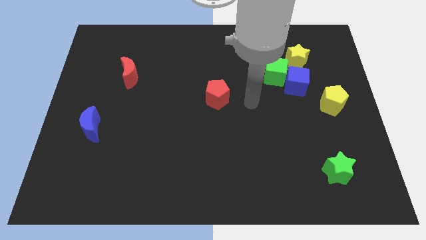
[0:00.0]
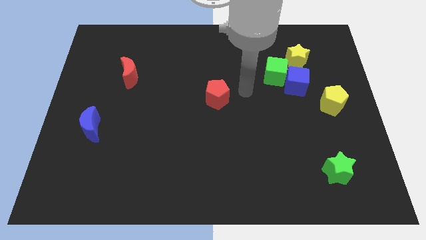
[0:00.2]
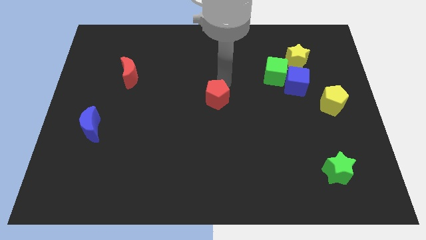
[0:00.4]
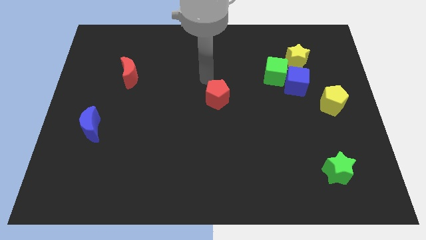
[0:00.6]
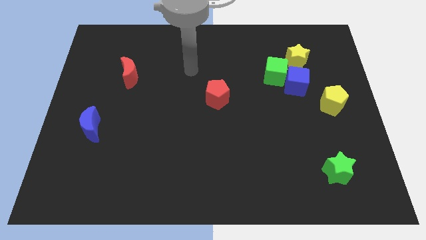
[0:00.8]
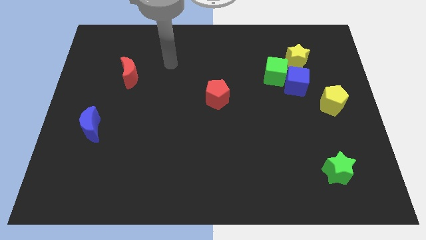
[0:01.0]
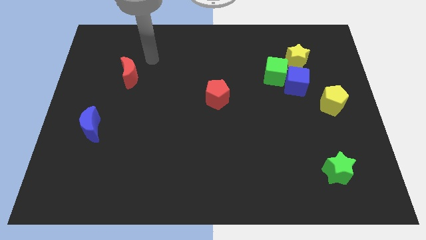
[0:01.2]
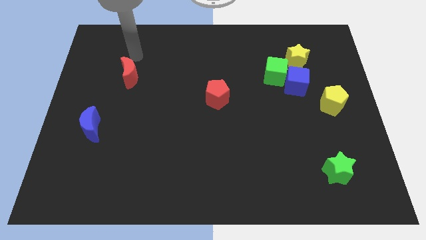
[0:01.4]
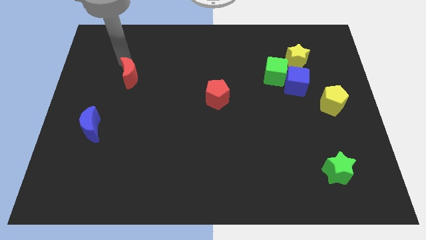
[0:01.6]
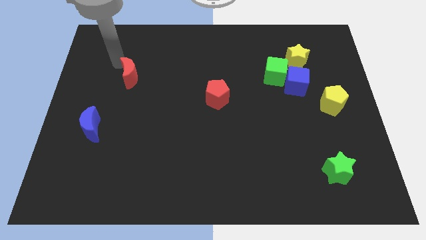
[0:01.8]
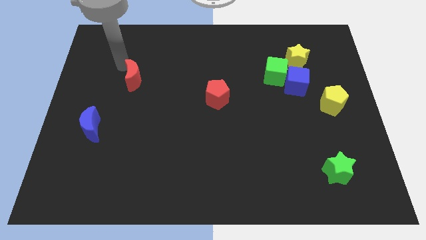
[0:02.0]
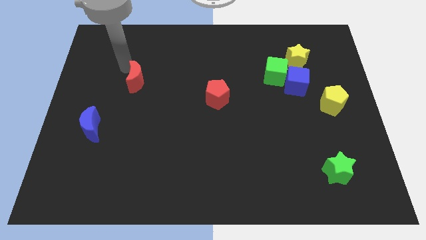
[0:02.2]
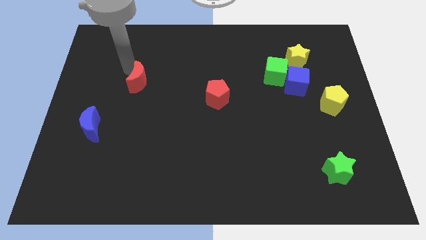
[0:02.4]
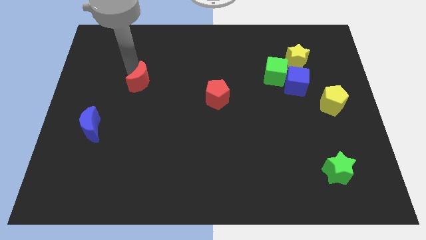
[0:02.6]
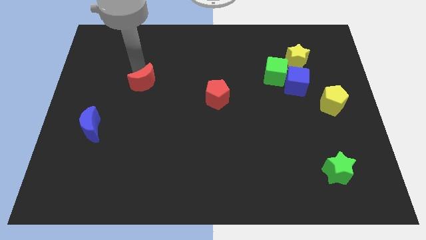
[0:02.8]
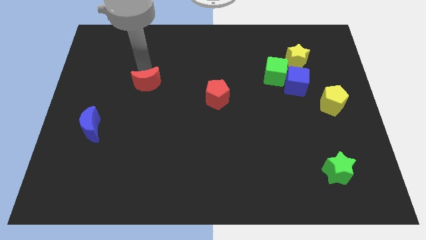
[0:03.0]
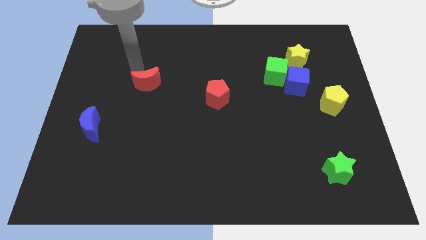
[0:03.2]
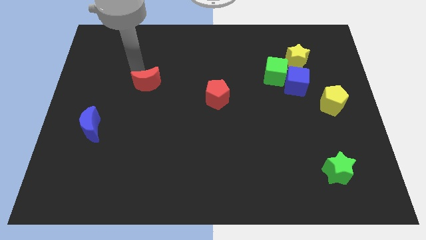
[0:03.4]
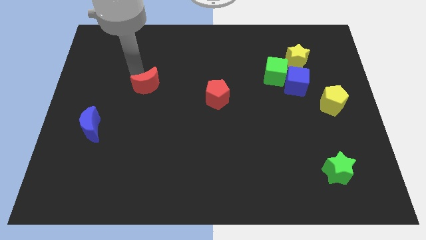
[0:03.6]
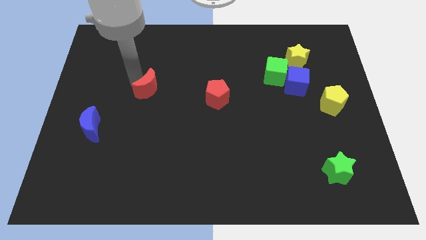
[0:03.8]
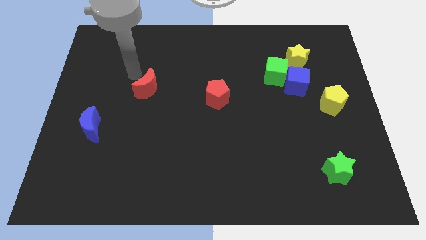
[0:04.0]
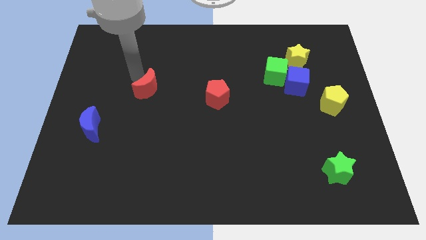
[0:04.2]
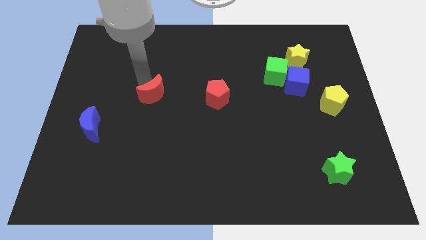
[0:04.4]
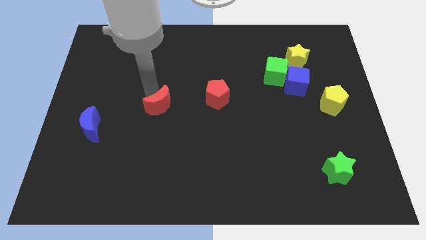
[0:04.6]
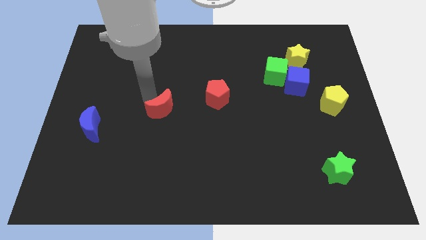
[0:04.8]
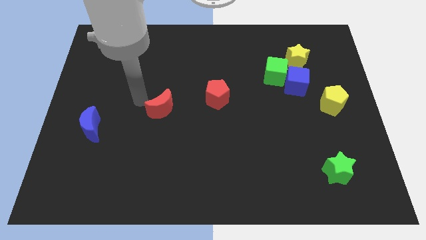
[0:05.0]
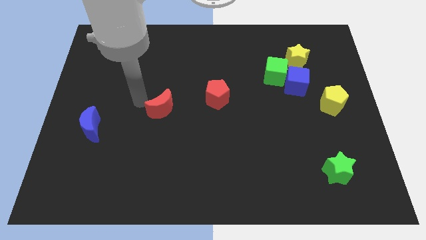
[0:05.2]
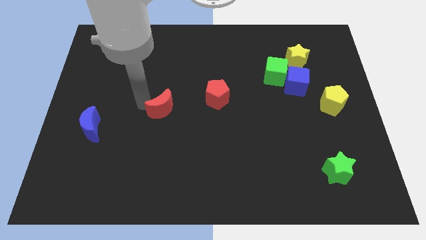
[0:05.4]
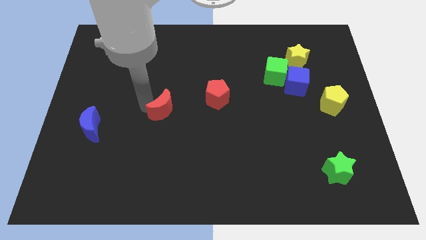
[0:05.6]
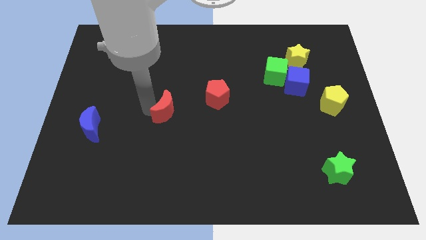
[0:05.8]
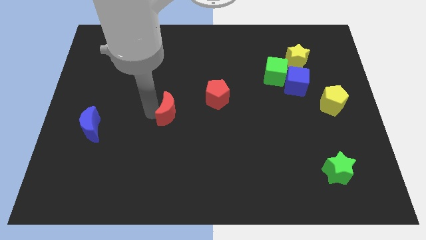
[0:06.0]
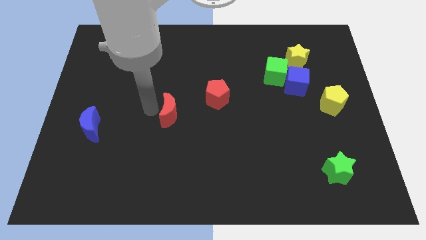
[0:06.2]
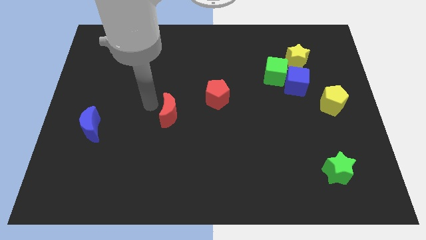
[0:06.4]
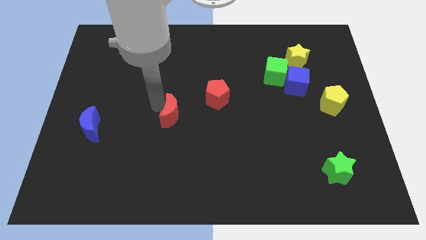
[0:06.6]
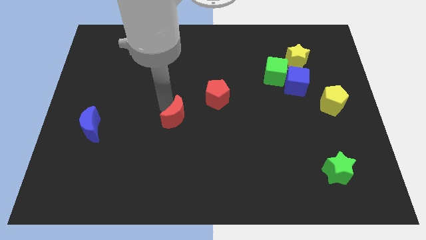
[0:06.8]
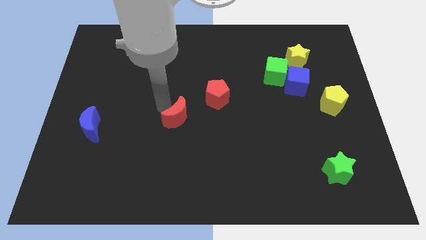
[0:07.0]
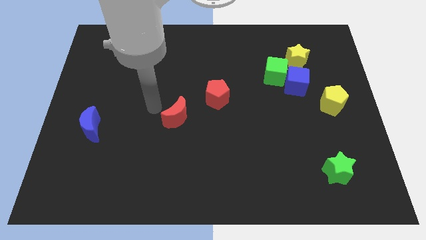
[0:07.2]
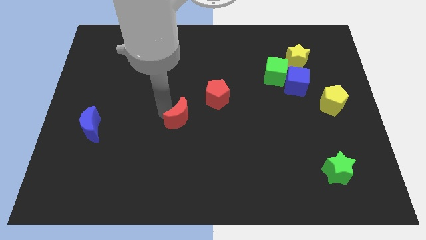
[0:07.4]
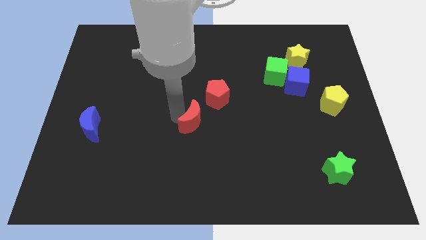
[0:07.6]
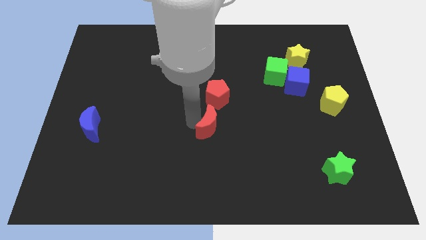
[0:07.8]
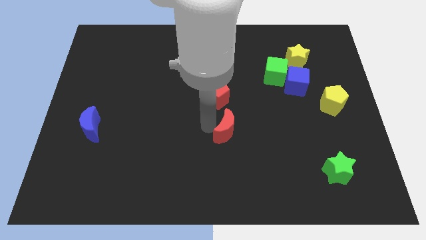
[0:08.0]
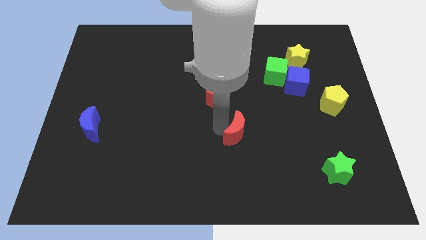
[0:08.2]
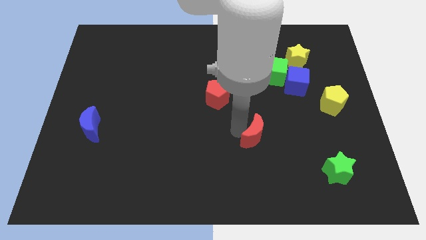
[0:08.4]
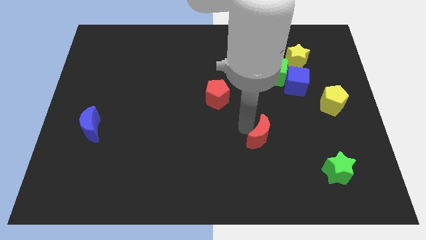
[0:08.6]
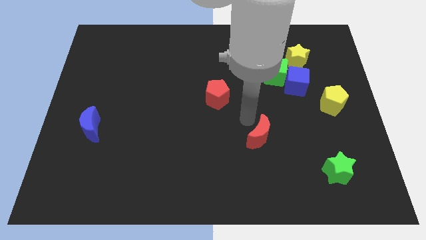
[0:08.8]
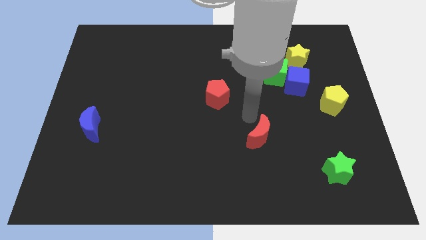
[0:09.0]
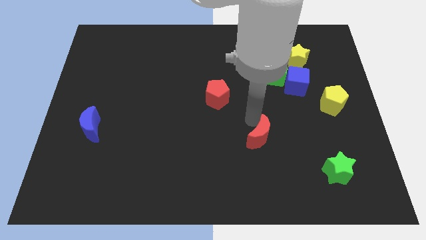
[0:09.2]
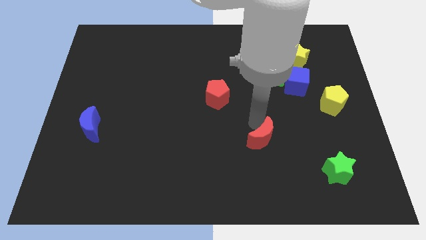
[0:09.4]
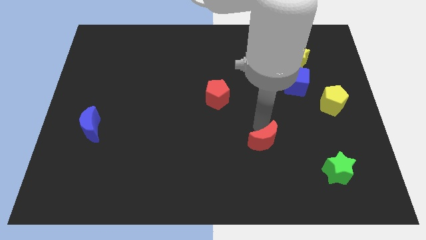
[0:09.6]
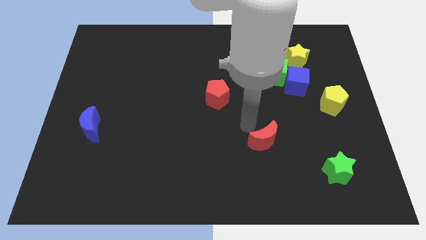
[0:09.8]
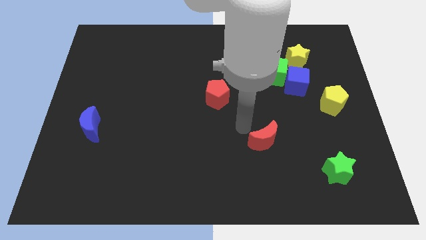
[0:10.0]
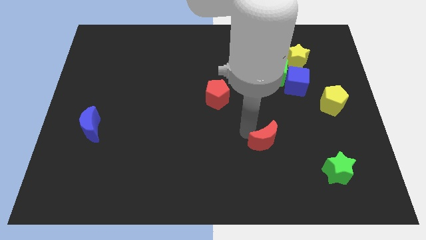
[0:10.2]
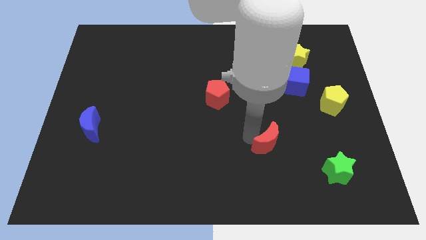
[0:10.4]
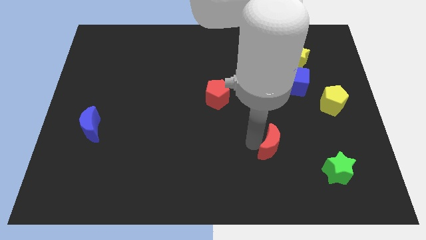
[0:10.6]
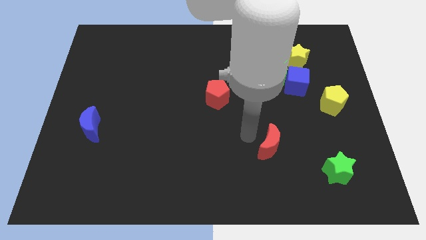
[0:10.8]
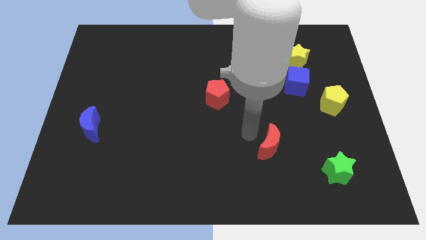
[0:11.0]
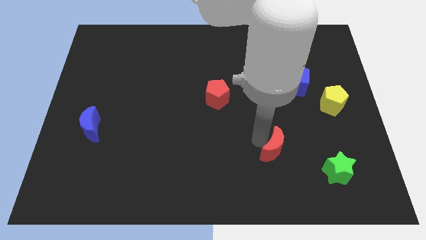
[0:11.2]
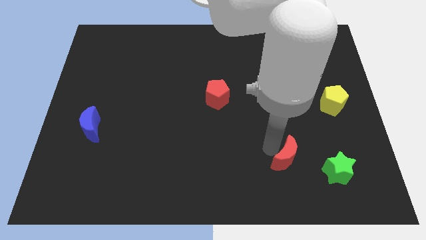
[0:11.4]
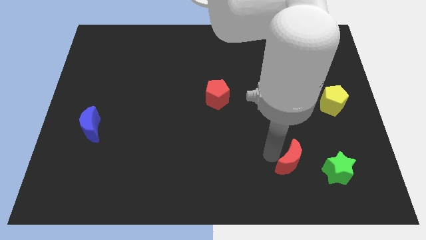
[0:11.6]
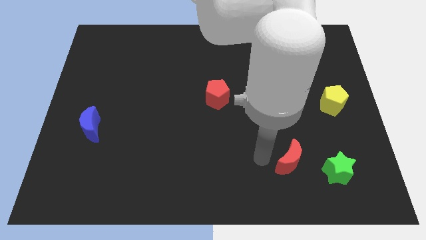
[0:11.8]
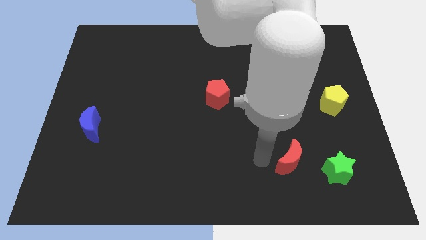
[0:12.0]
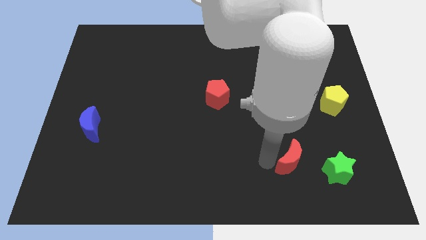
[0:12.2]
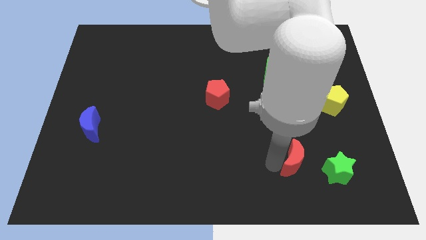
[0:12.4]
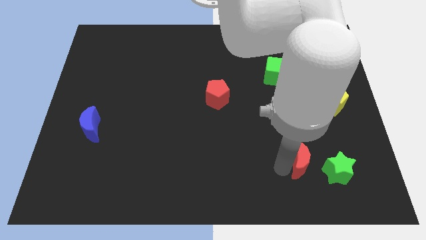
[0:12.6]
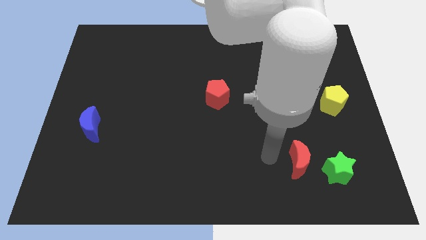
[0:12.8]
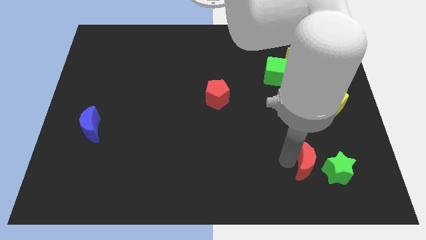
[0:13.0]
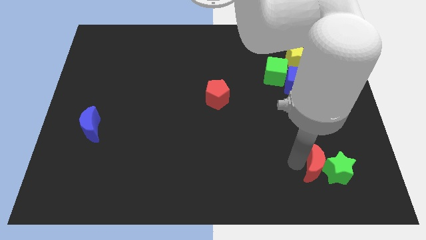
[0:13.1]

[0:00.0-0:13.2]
slide the red moon to the green star

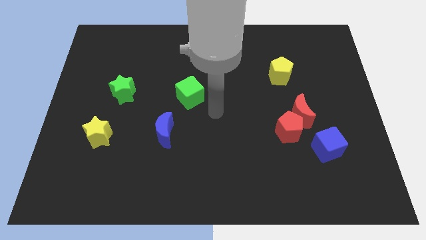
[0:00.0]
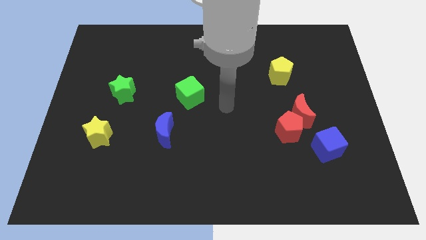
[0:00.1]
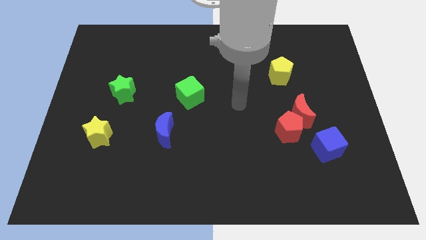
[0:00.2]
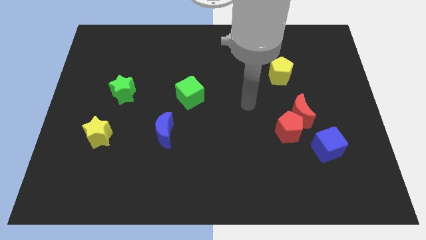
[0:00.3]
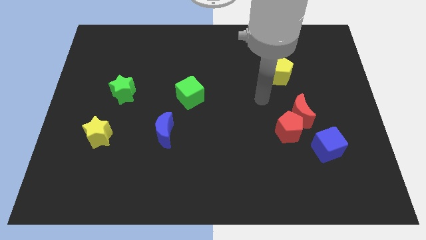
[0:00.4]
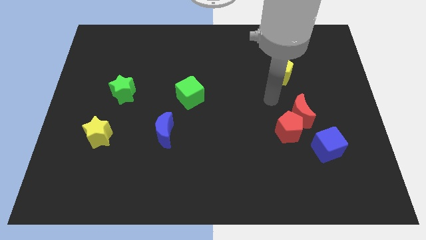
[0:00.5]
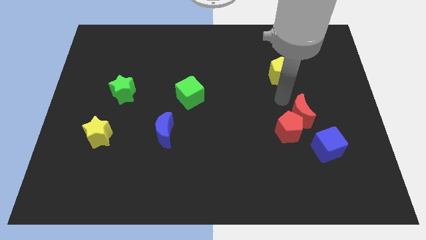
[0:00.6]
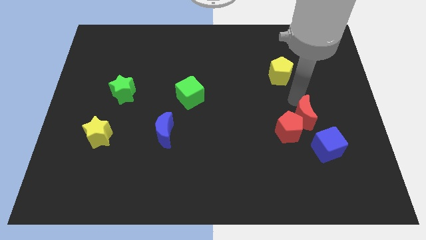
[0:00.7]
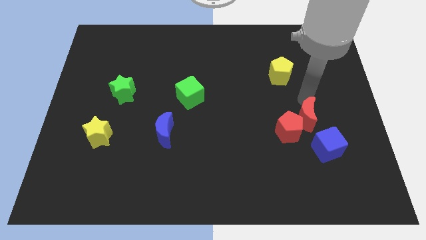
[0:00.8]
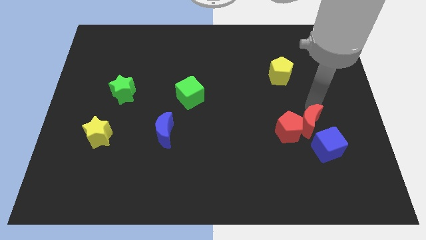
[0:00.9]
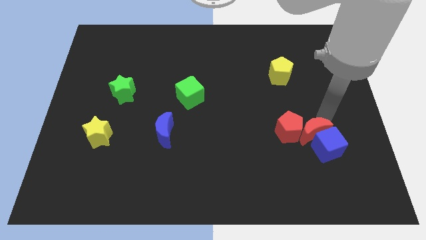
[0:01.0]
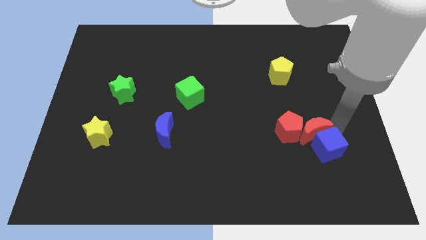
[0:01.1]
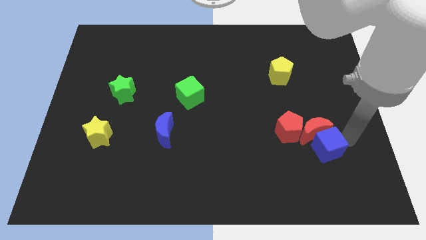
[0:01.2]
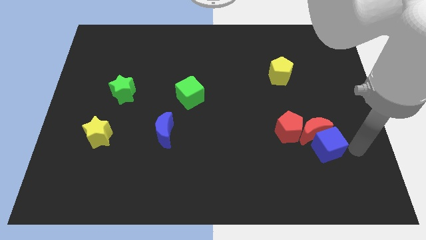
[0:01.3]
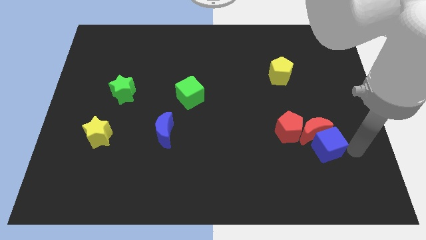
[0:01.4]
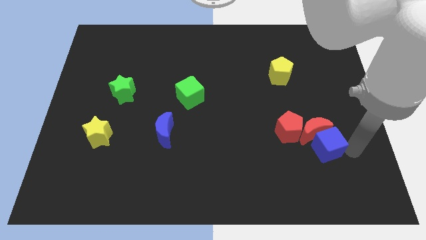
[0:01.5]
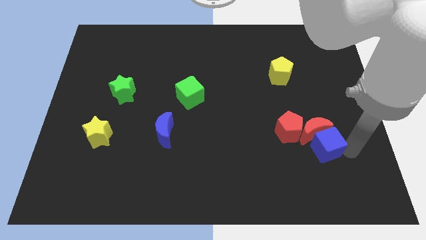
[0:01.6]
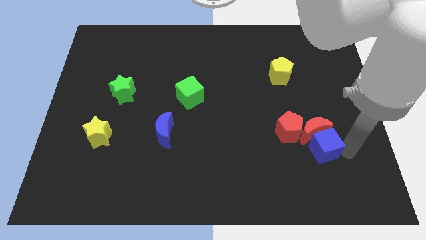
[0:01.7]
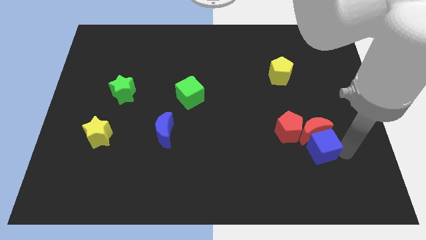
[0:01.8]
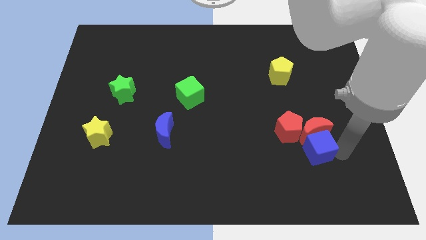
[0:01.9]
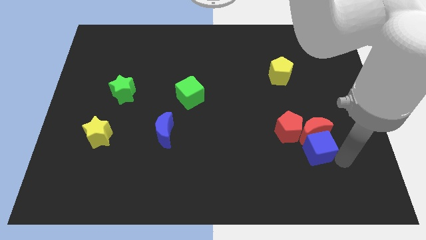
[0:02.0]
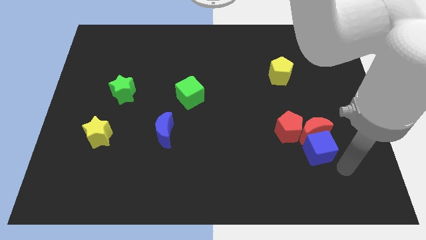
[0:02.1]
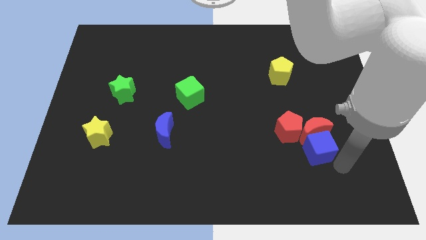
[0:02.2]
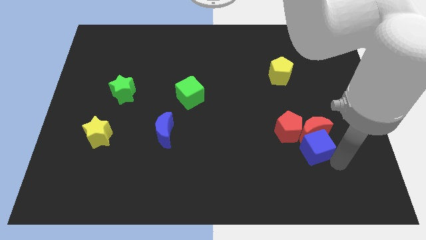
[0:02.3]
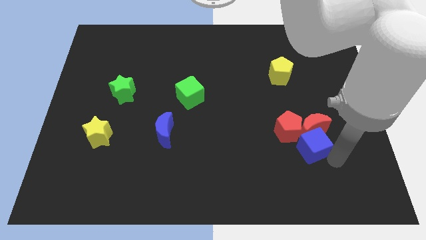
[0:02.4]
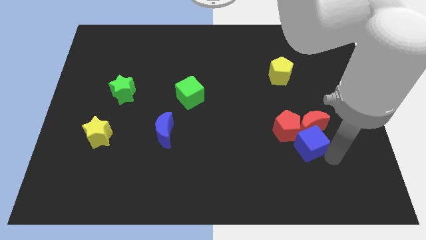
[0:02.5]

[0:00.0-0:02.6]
slide the blue cube next to the red pentagon
